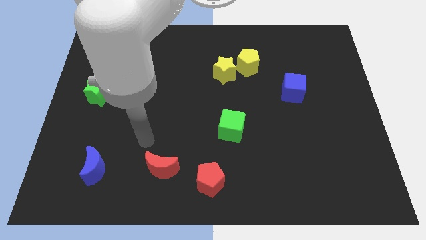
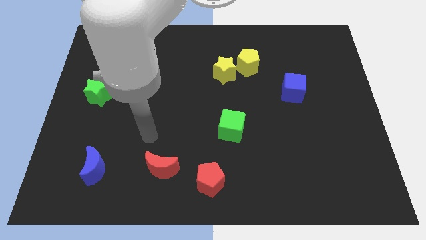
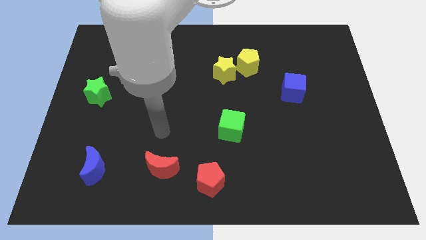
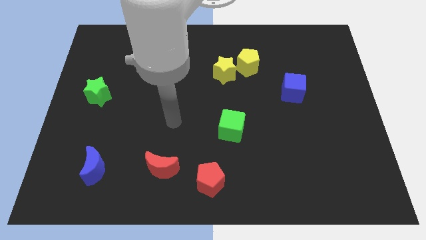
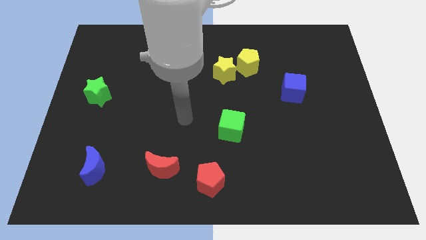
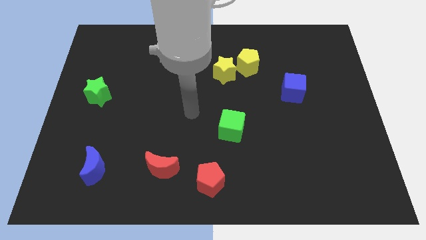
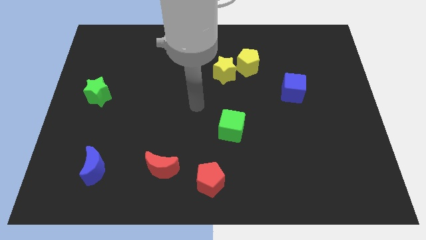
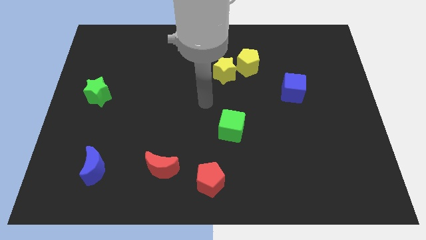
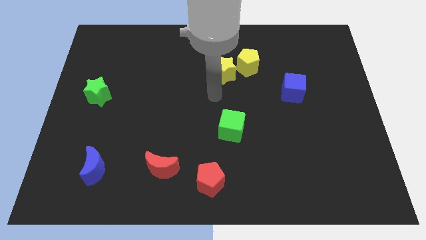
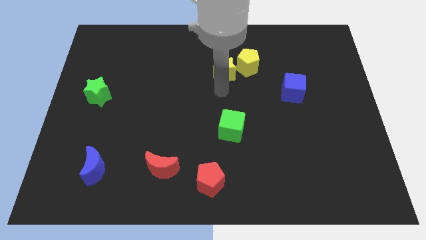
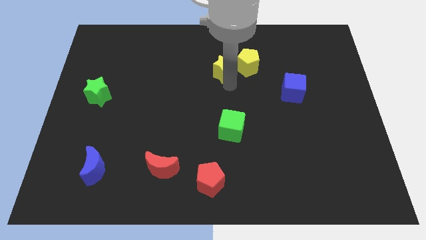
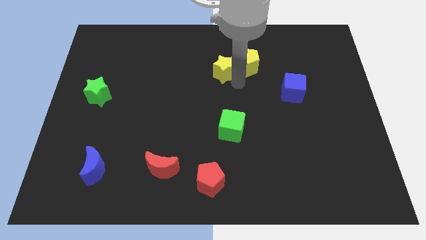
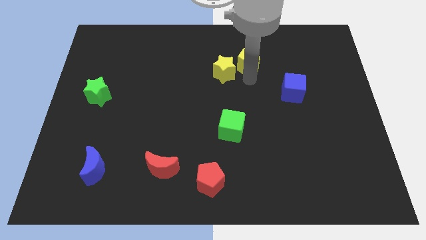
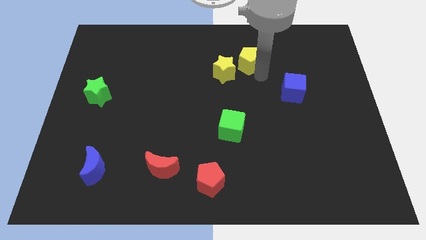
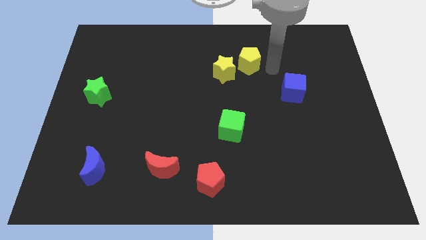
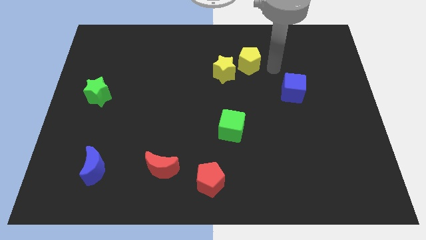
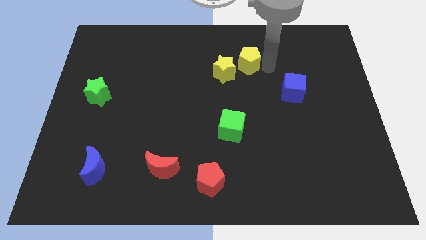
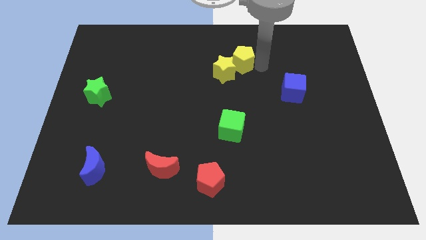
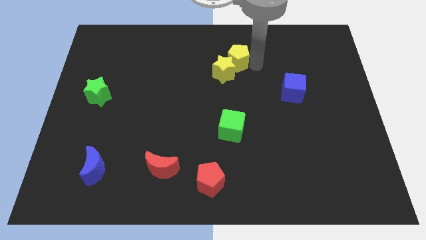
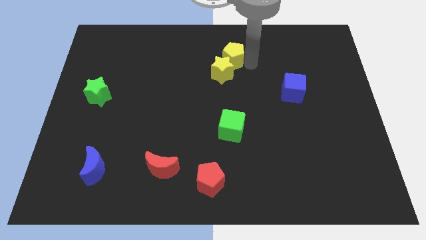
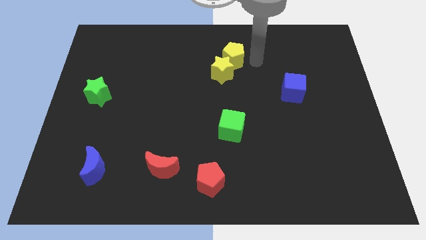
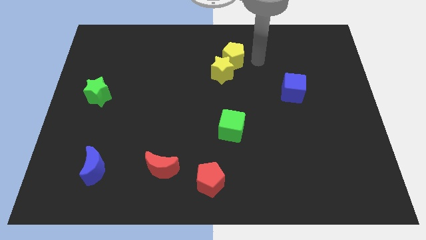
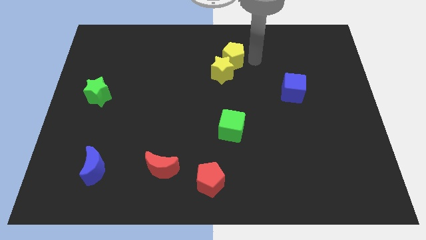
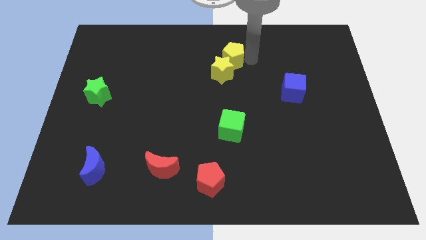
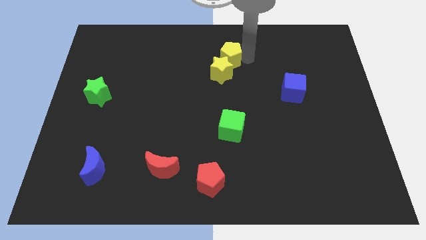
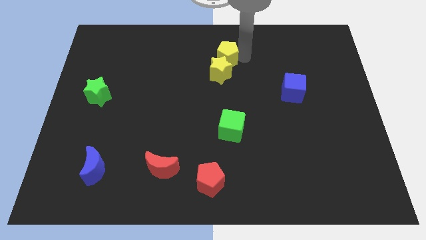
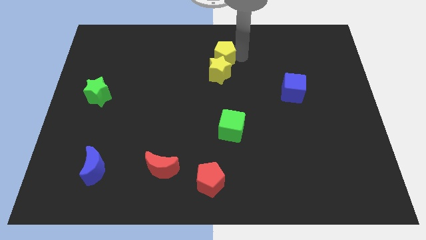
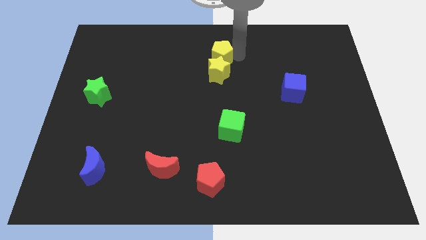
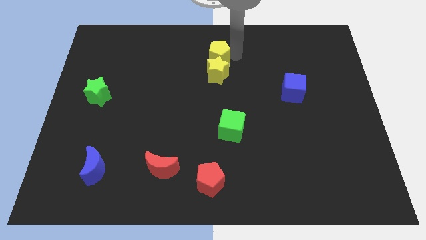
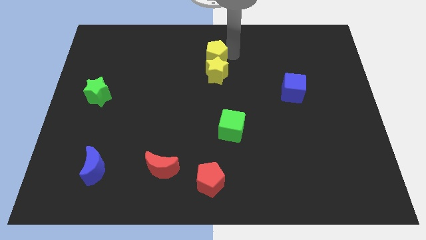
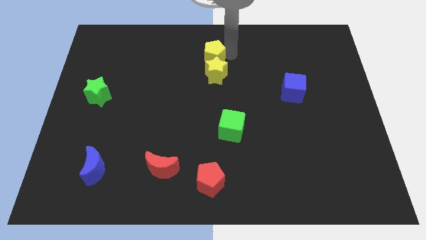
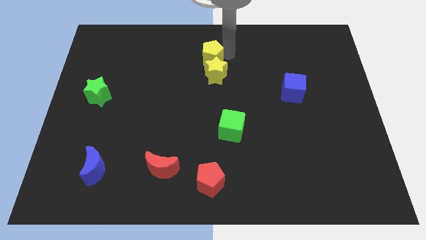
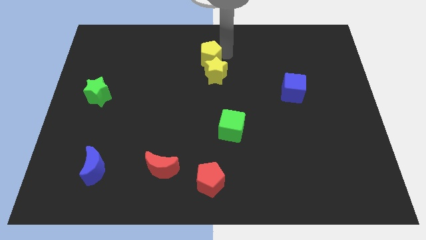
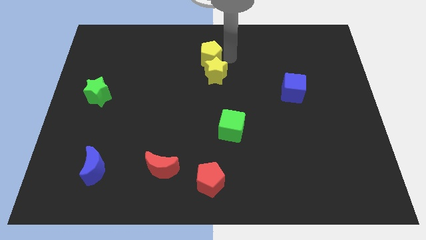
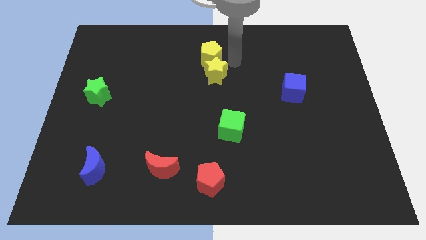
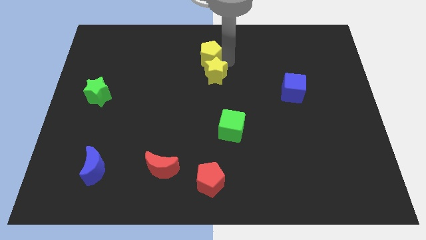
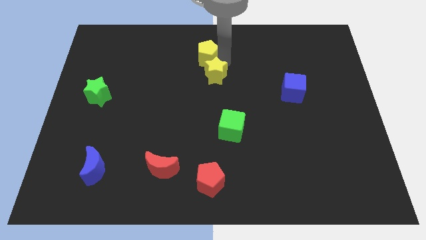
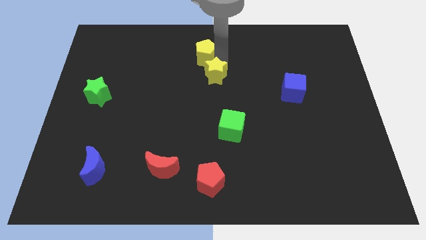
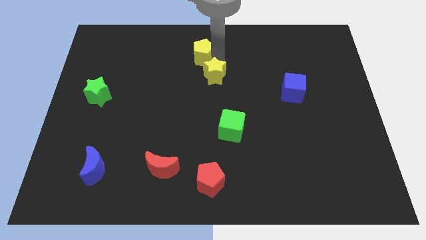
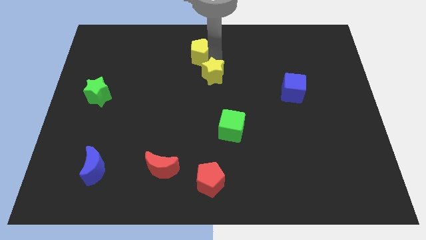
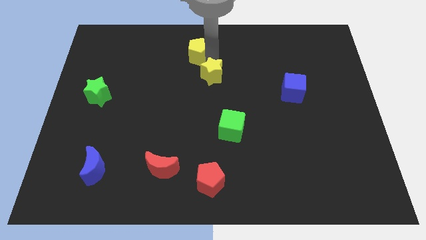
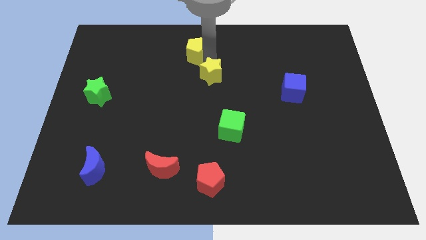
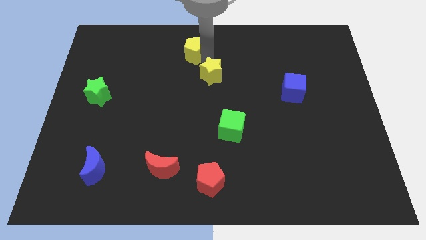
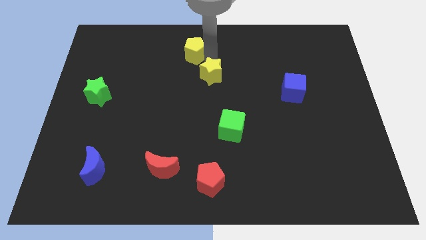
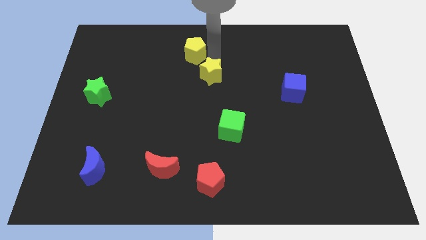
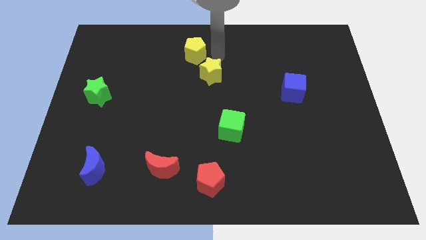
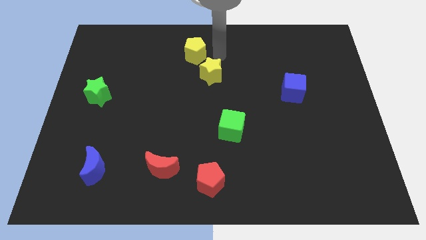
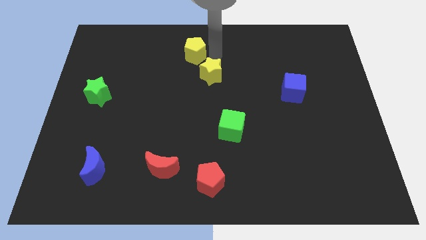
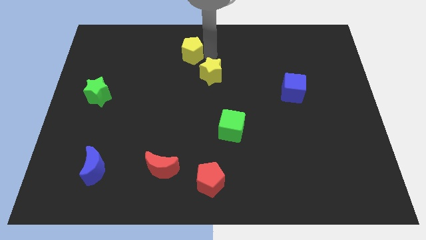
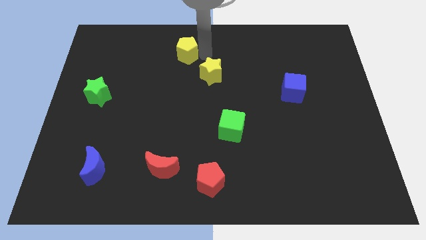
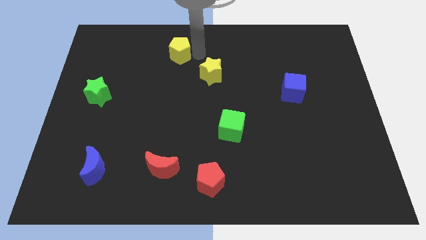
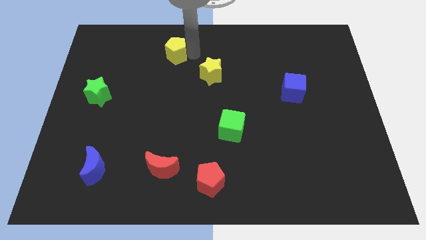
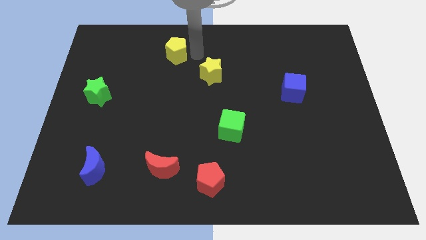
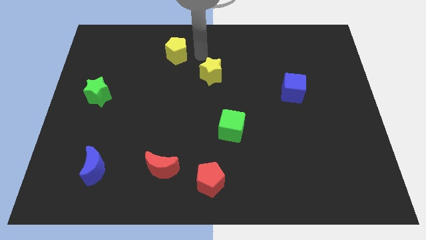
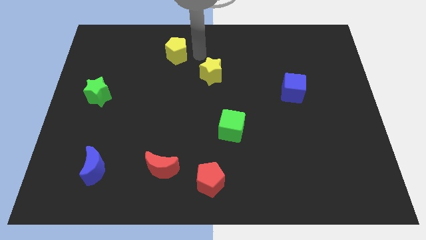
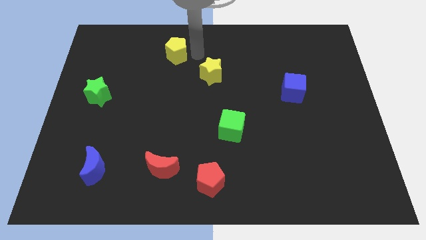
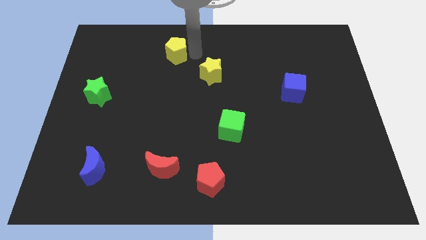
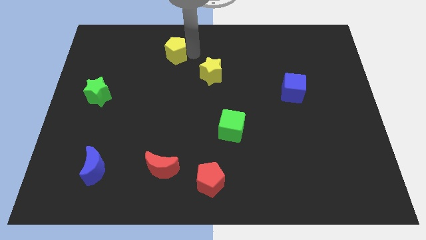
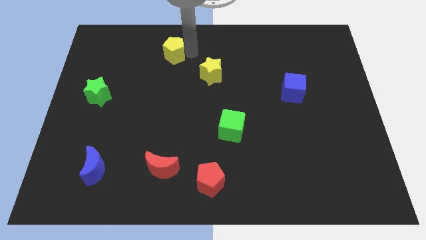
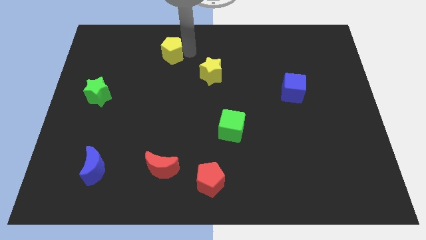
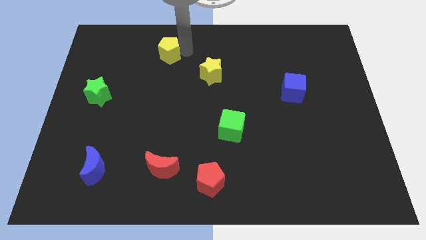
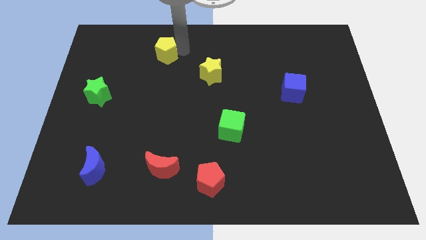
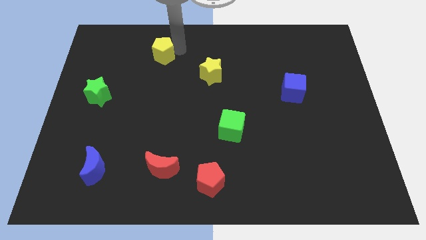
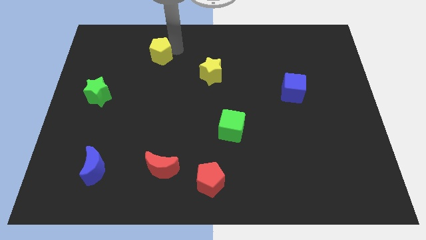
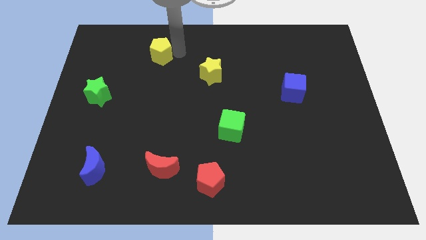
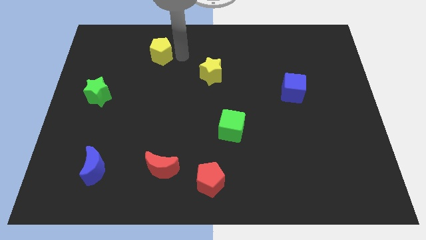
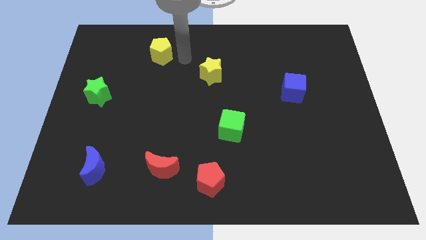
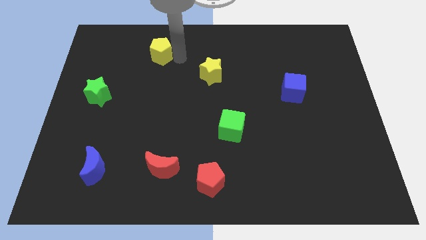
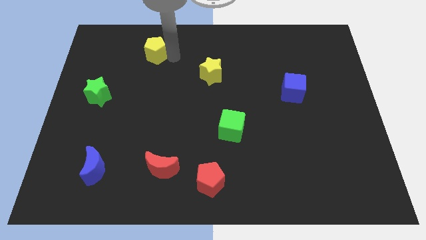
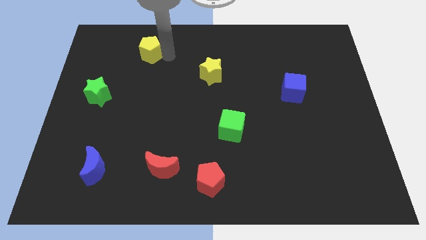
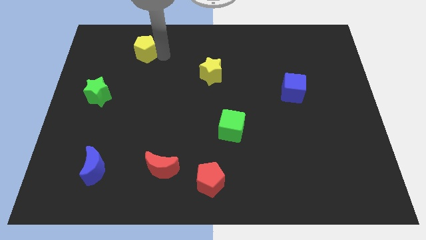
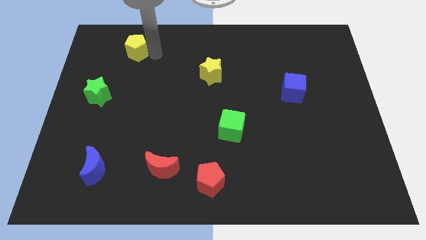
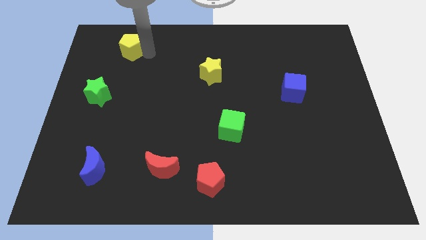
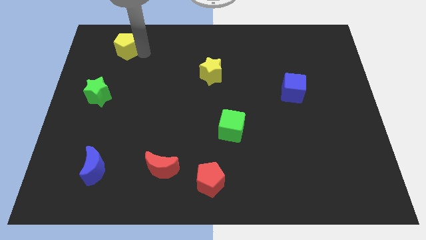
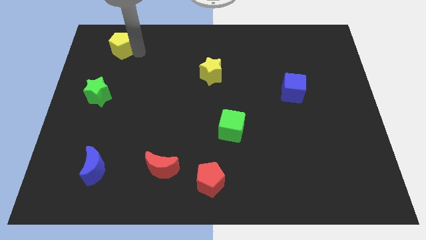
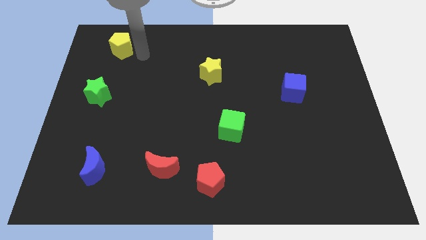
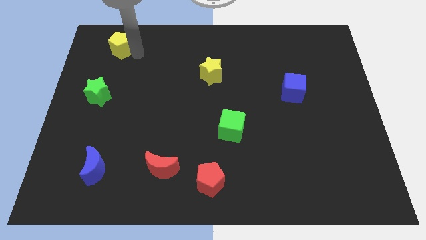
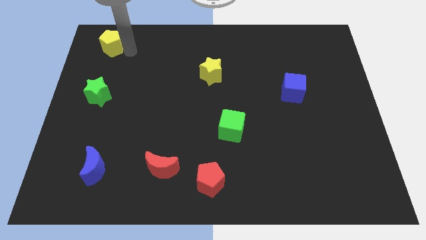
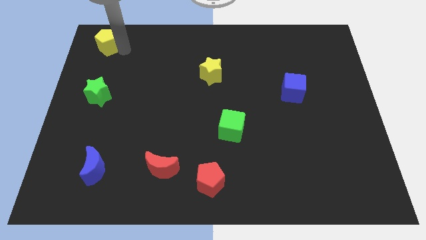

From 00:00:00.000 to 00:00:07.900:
slide the yellow pentagon to the top left of the board

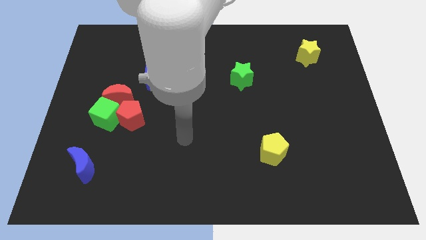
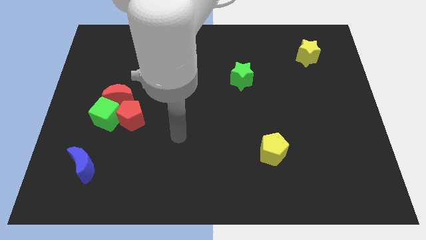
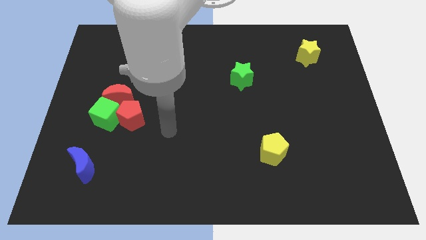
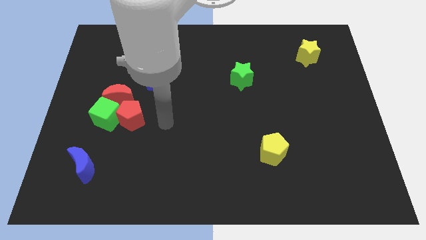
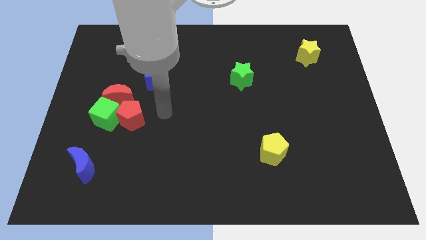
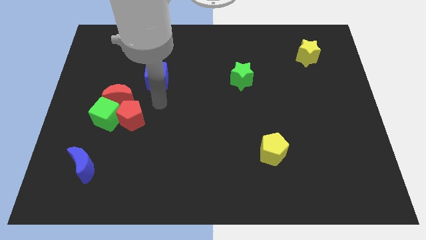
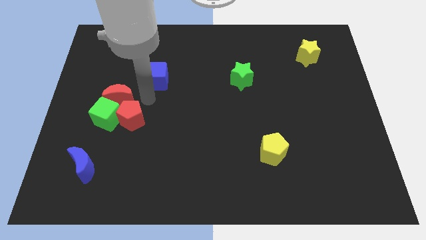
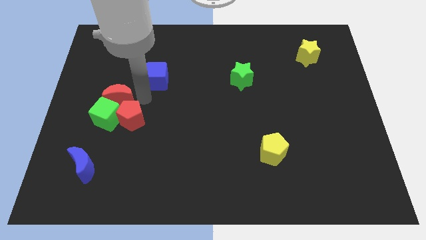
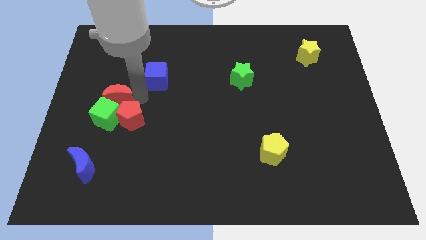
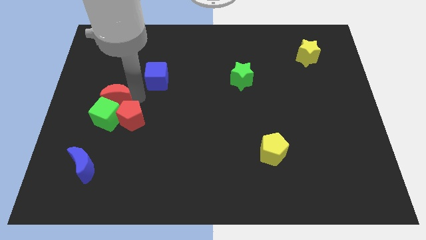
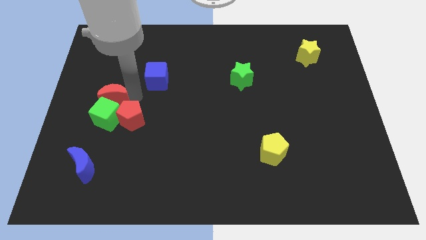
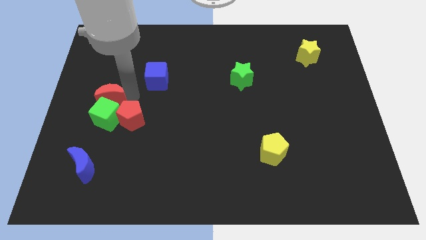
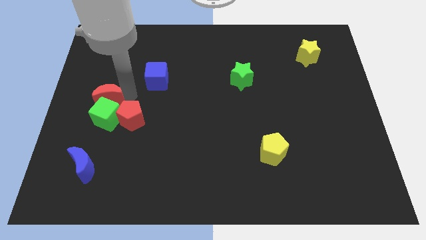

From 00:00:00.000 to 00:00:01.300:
slide the red moon to the left side of the board
